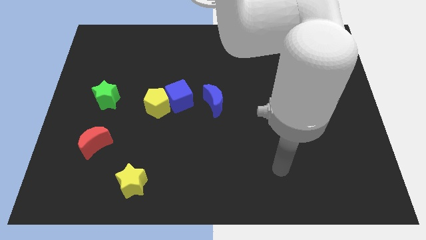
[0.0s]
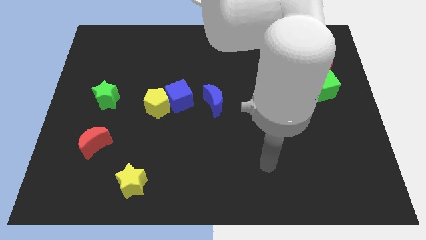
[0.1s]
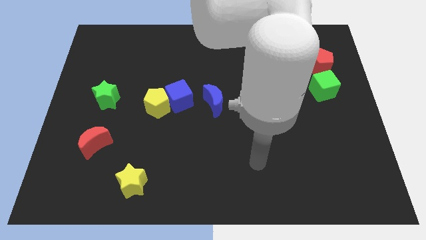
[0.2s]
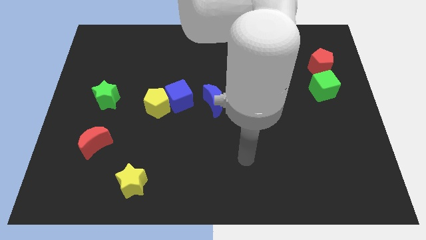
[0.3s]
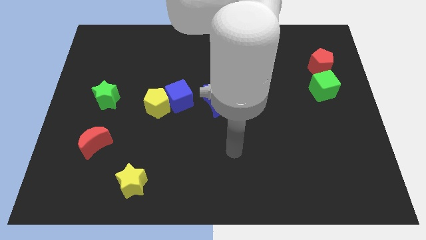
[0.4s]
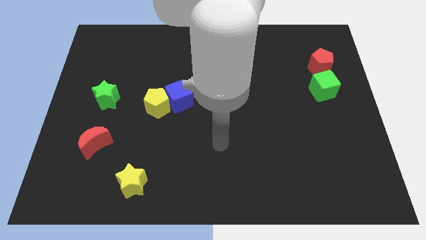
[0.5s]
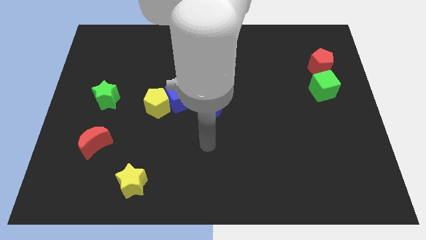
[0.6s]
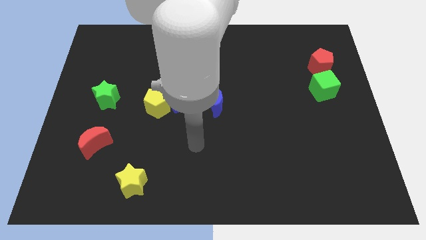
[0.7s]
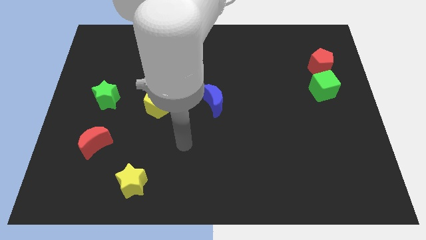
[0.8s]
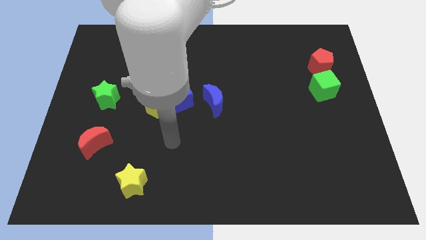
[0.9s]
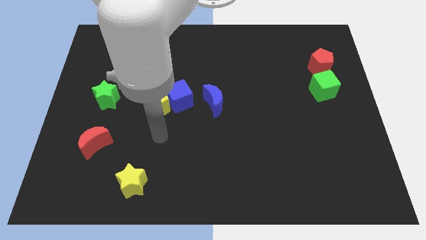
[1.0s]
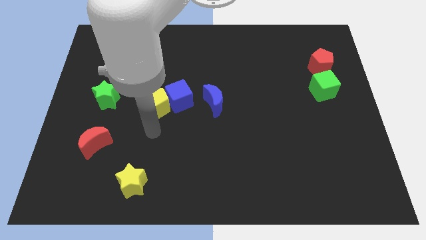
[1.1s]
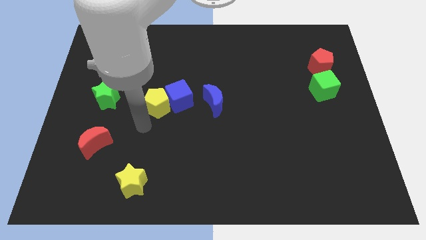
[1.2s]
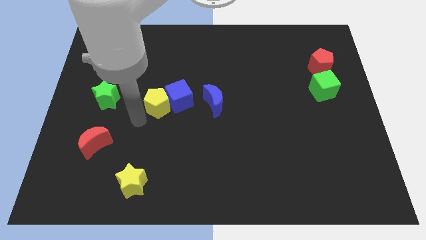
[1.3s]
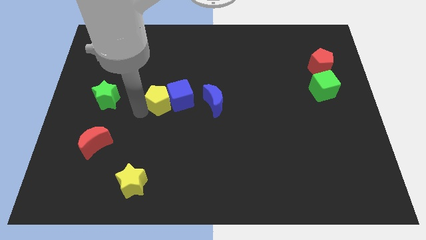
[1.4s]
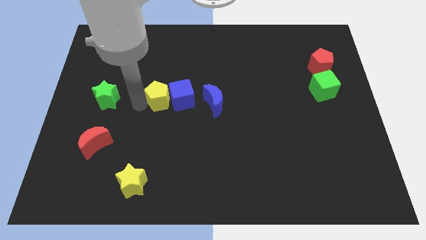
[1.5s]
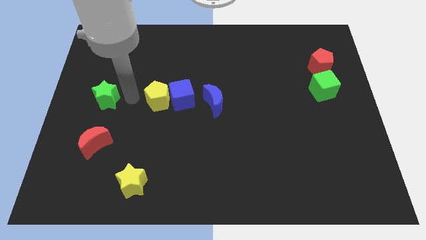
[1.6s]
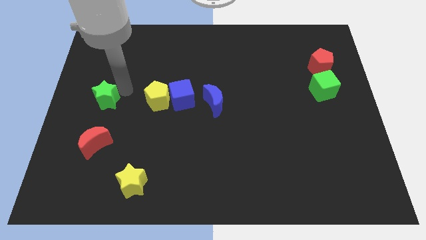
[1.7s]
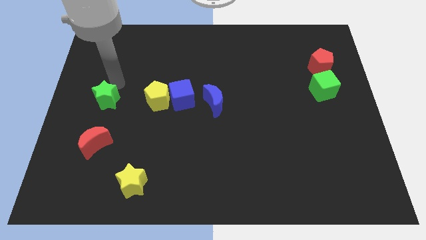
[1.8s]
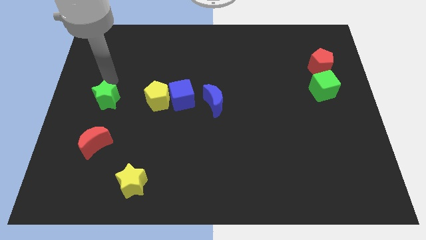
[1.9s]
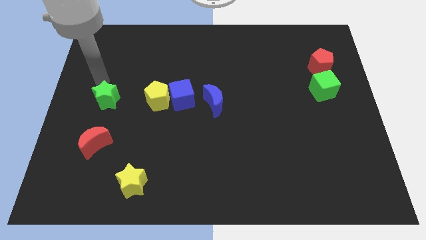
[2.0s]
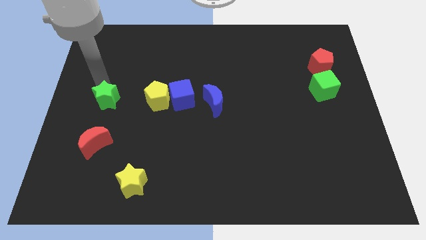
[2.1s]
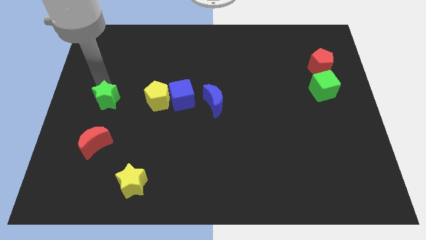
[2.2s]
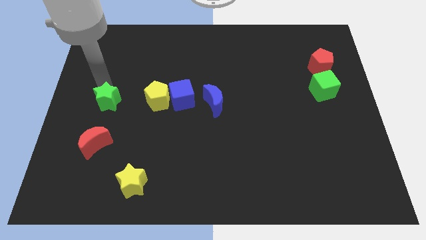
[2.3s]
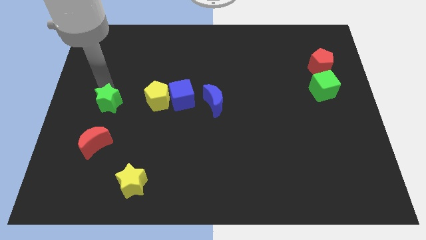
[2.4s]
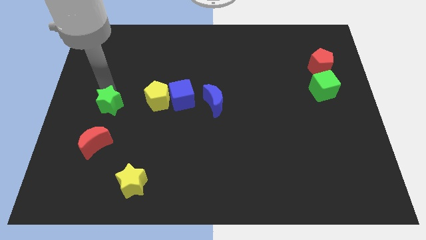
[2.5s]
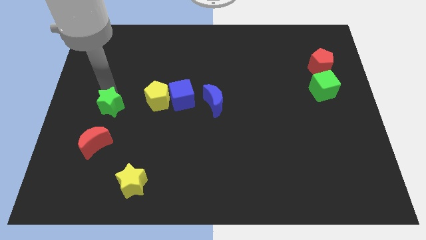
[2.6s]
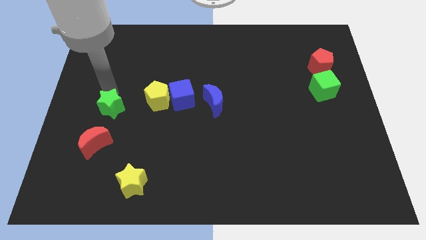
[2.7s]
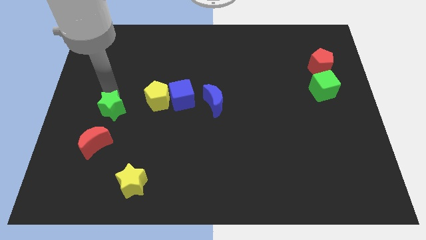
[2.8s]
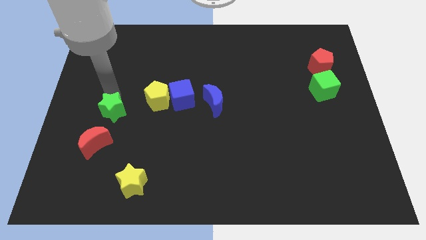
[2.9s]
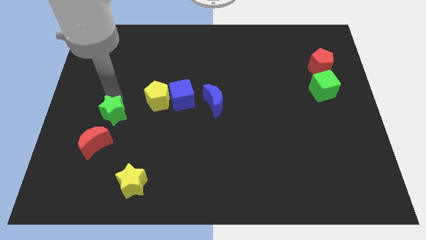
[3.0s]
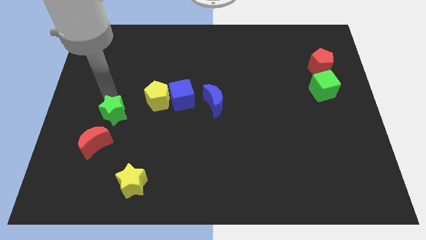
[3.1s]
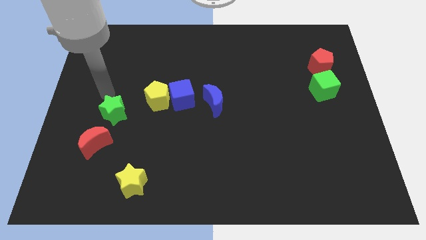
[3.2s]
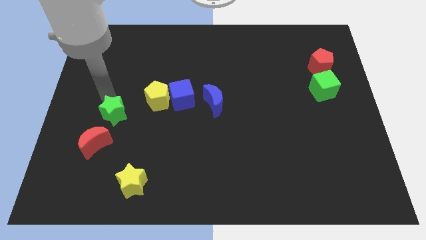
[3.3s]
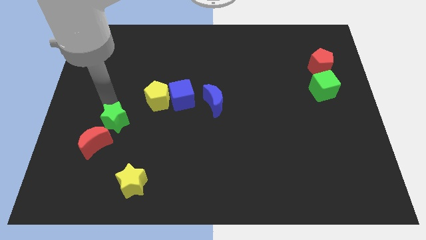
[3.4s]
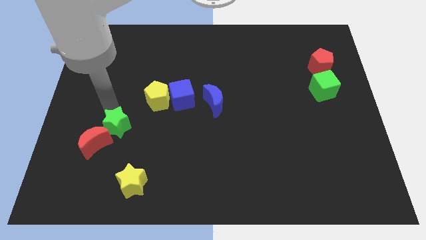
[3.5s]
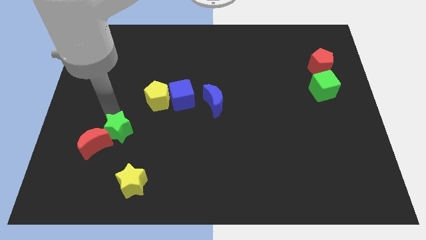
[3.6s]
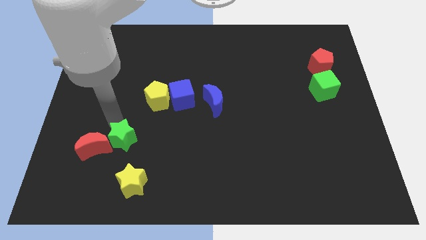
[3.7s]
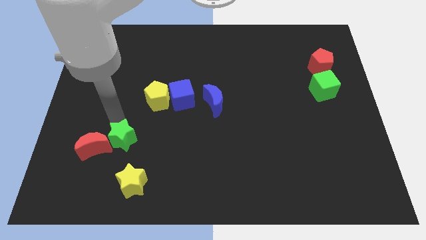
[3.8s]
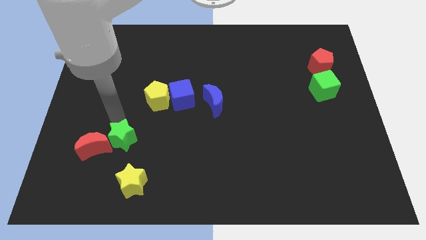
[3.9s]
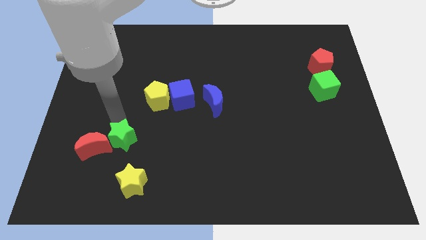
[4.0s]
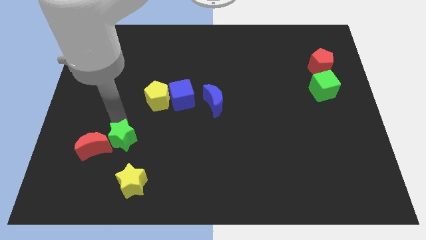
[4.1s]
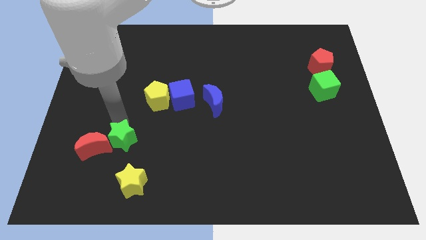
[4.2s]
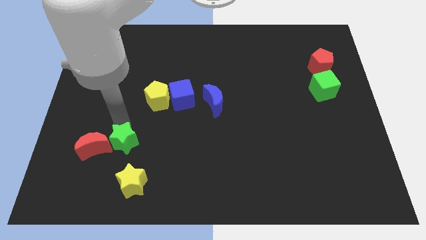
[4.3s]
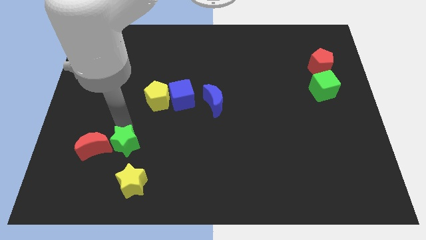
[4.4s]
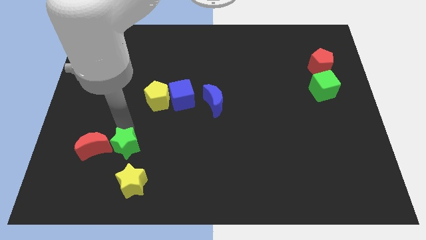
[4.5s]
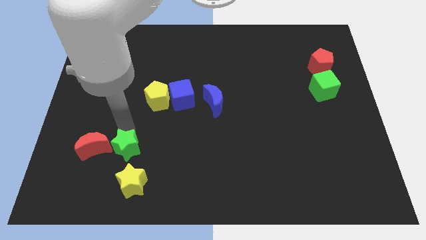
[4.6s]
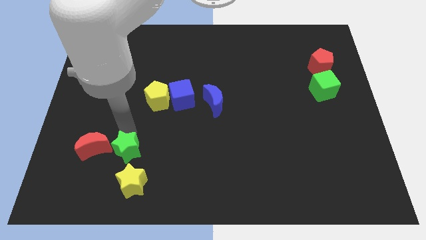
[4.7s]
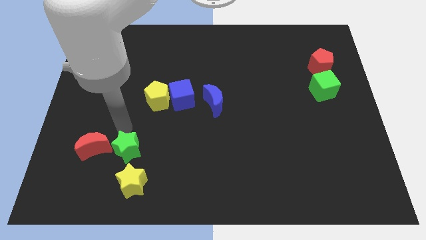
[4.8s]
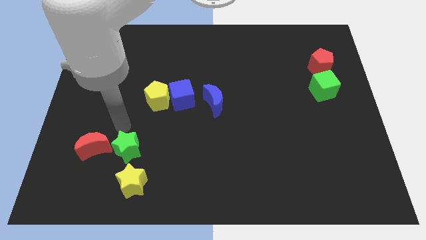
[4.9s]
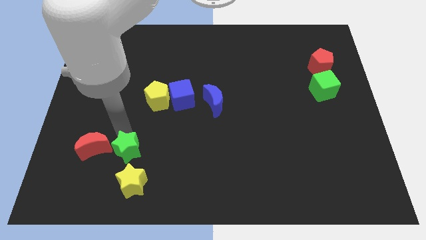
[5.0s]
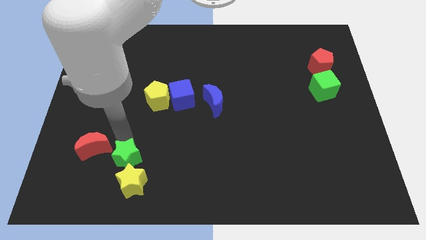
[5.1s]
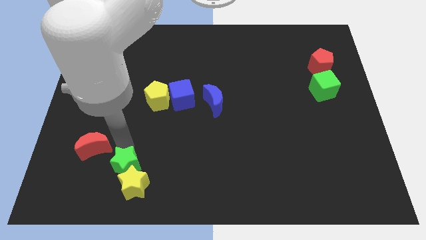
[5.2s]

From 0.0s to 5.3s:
slide the green star to the yellow star

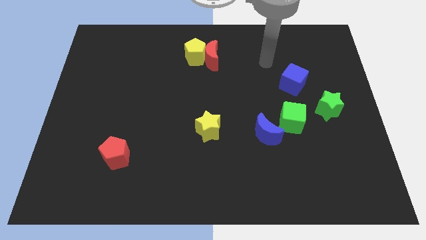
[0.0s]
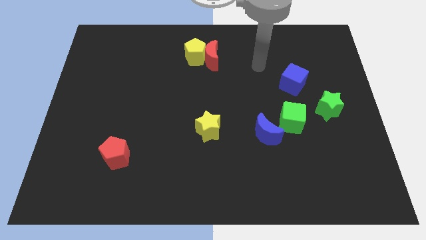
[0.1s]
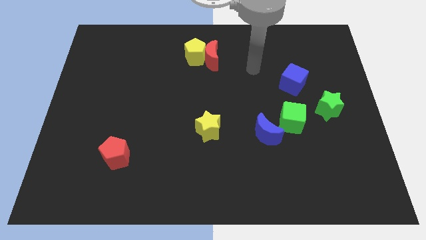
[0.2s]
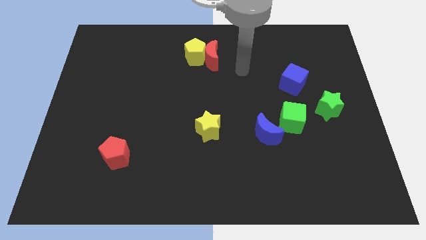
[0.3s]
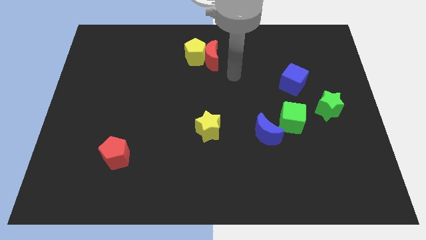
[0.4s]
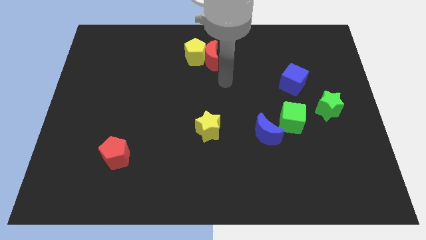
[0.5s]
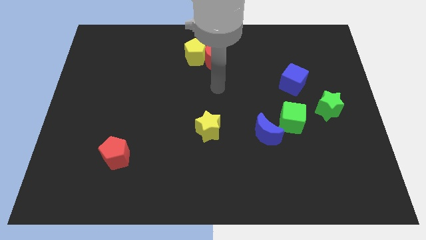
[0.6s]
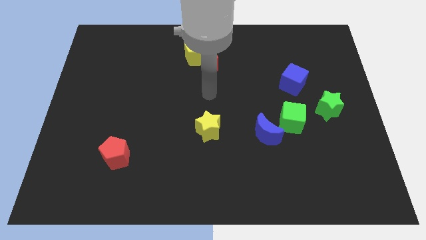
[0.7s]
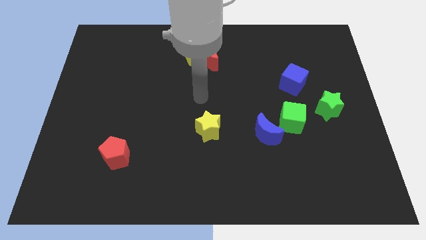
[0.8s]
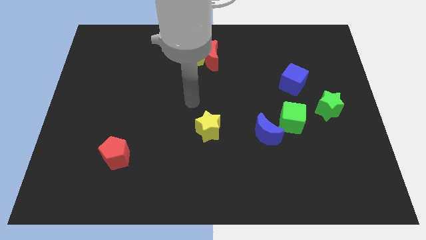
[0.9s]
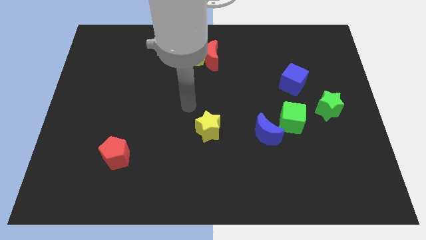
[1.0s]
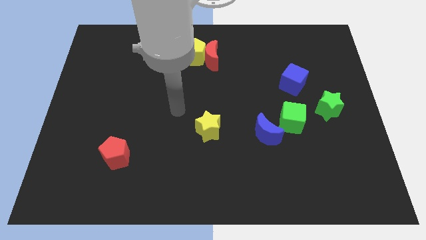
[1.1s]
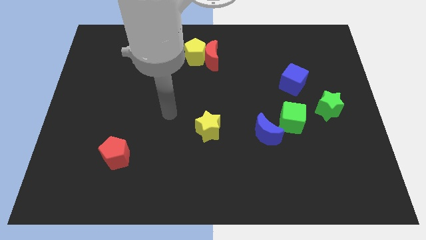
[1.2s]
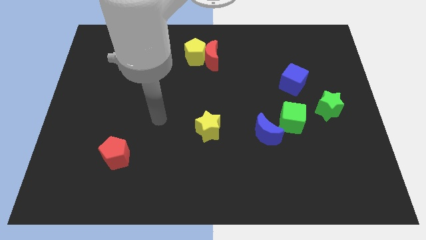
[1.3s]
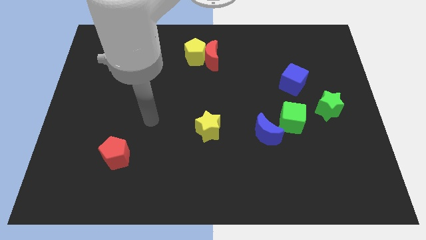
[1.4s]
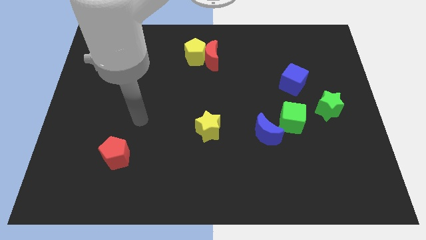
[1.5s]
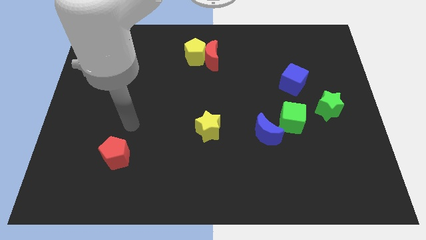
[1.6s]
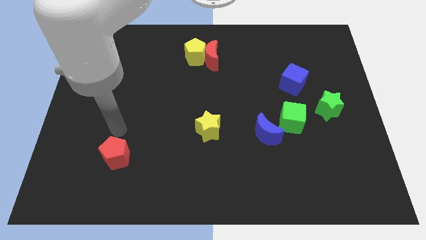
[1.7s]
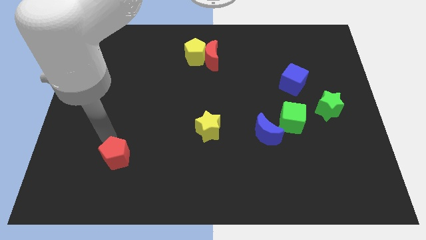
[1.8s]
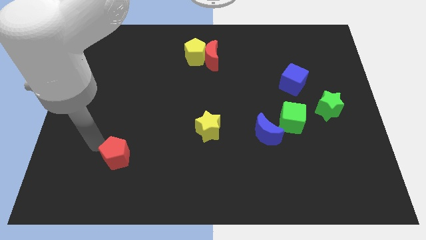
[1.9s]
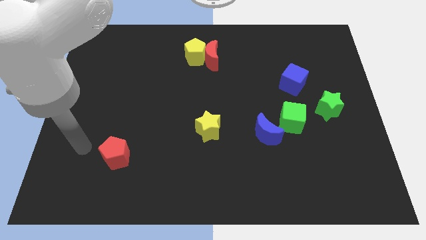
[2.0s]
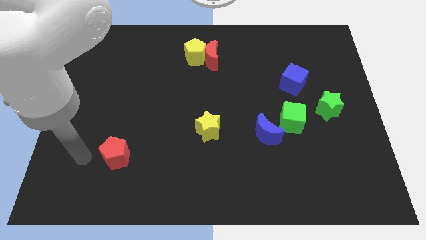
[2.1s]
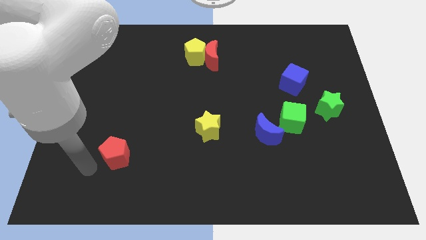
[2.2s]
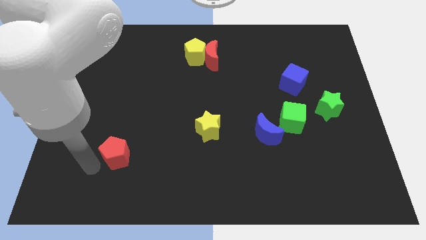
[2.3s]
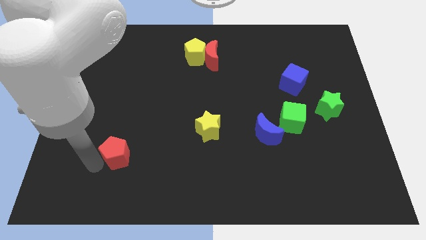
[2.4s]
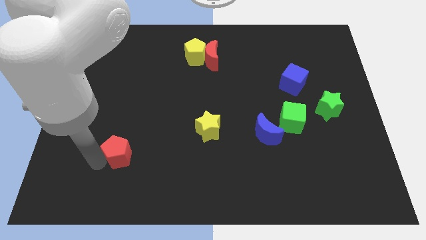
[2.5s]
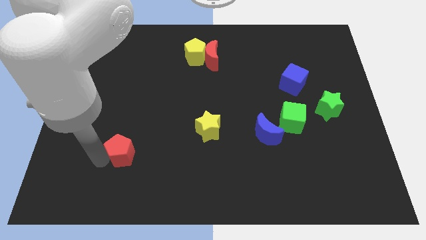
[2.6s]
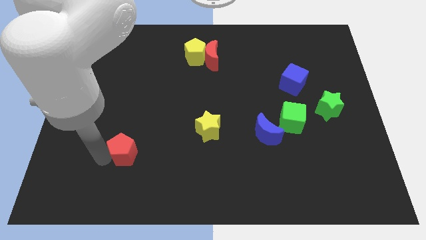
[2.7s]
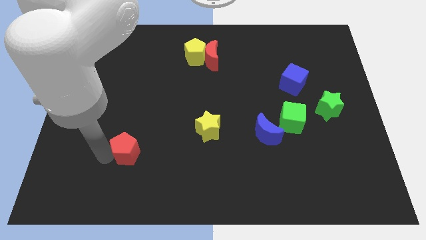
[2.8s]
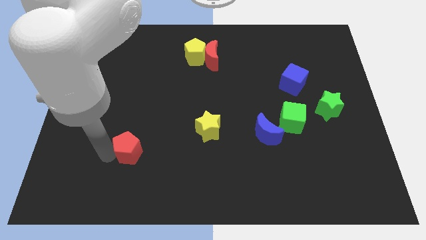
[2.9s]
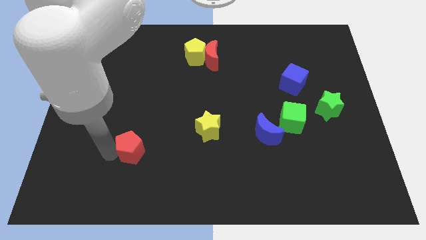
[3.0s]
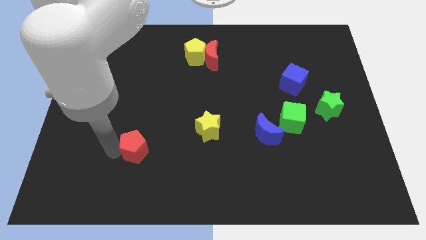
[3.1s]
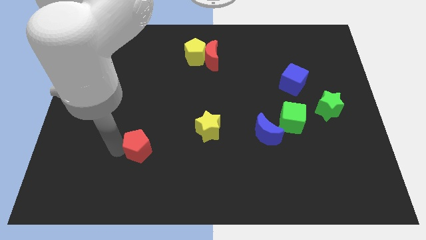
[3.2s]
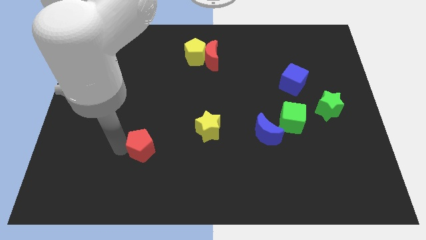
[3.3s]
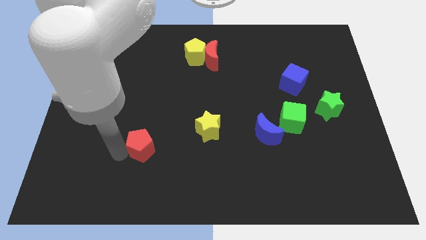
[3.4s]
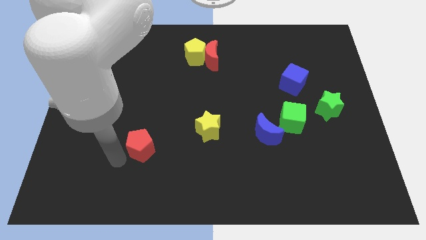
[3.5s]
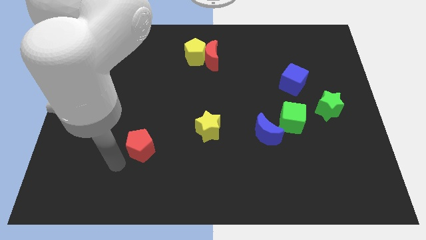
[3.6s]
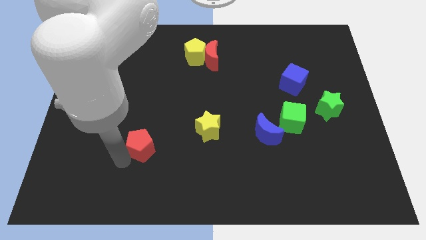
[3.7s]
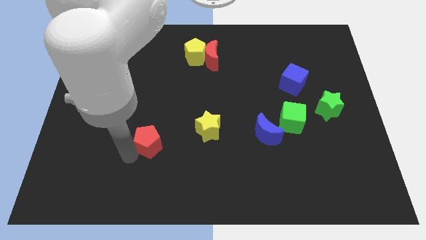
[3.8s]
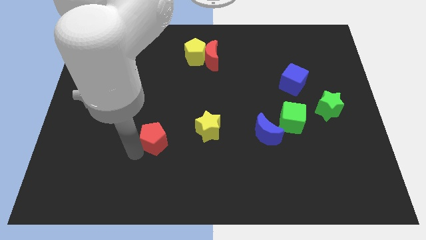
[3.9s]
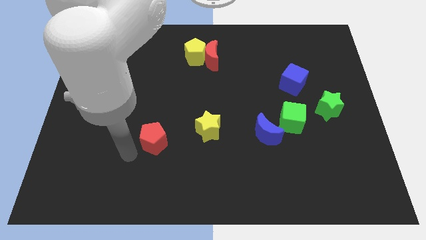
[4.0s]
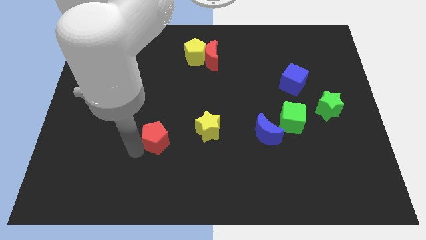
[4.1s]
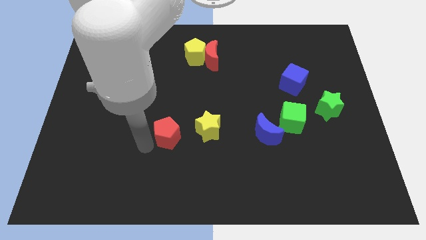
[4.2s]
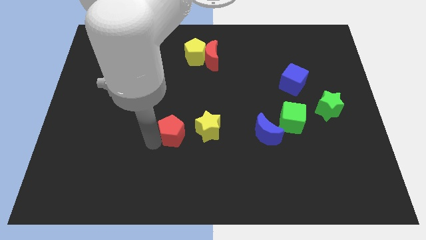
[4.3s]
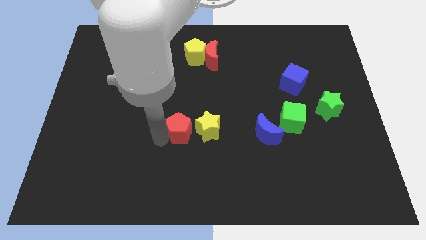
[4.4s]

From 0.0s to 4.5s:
put the red pentagon to the yellow star
